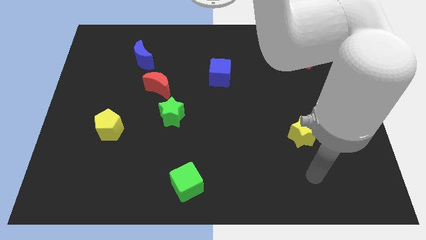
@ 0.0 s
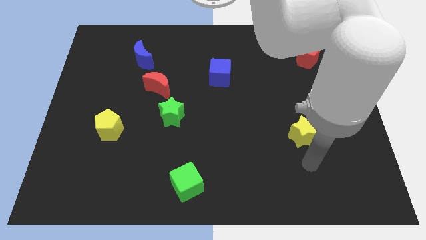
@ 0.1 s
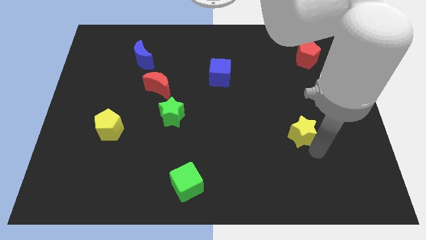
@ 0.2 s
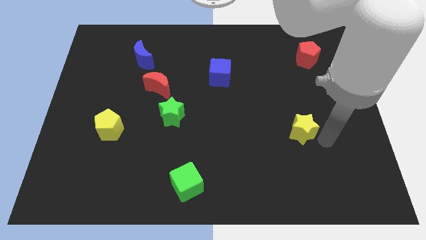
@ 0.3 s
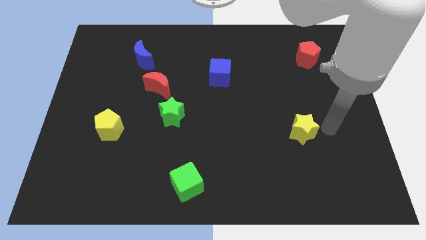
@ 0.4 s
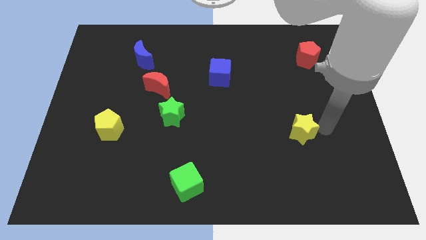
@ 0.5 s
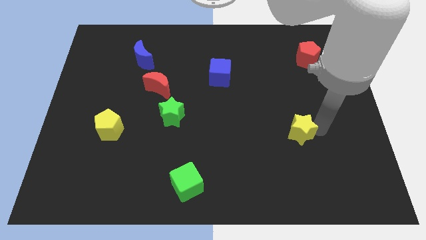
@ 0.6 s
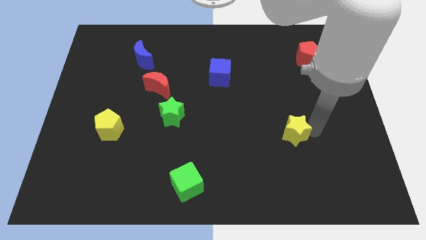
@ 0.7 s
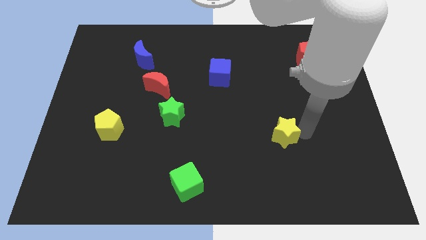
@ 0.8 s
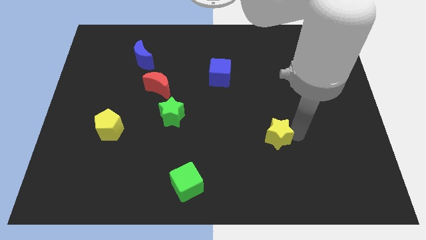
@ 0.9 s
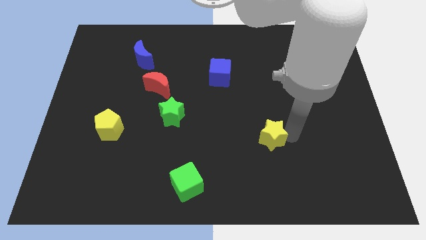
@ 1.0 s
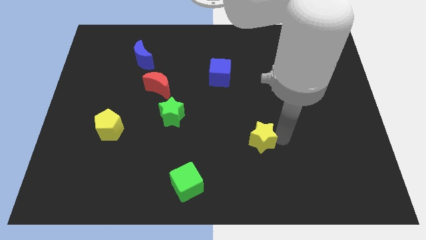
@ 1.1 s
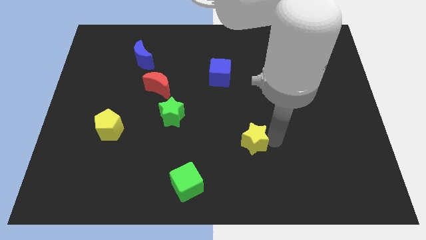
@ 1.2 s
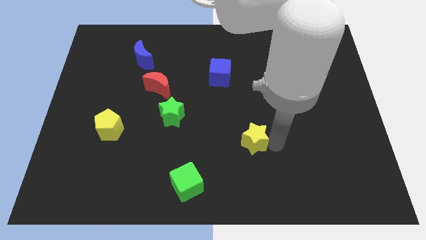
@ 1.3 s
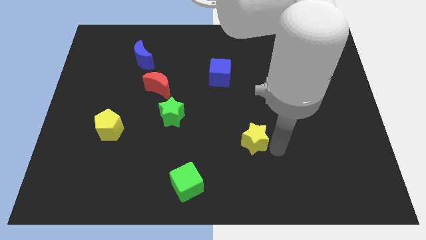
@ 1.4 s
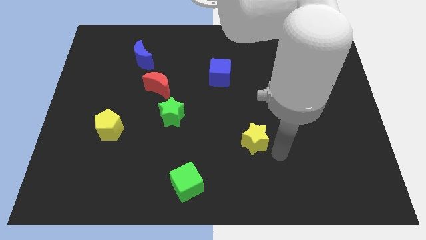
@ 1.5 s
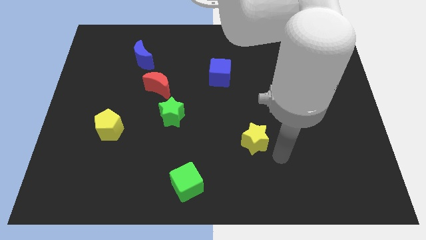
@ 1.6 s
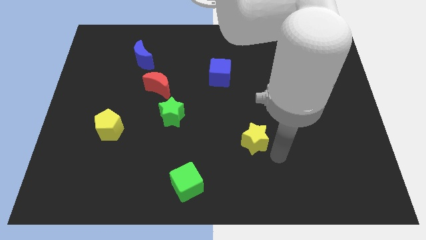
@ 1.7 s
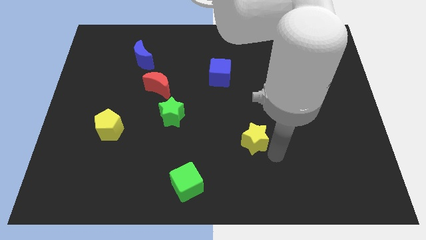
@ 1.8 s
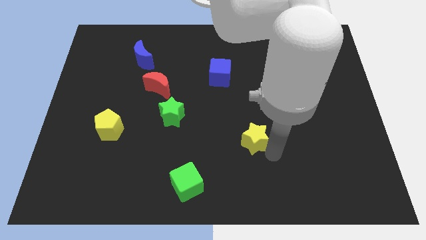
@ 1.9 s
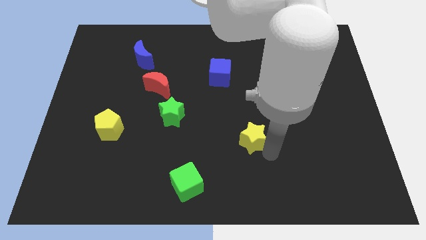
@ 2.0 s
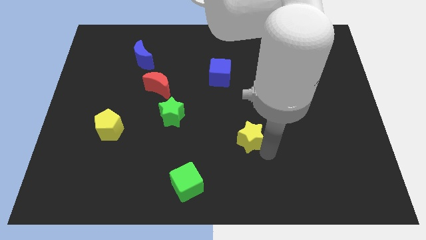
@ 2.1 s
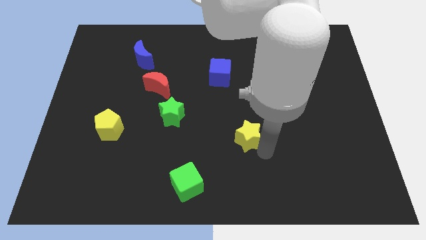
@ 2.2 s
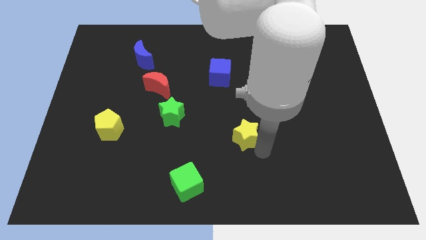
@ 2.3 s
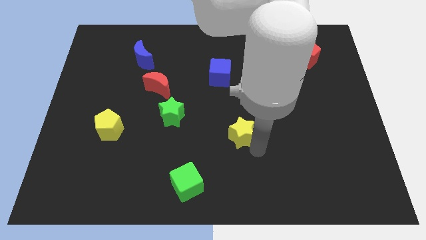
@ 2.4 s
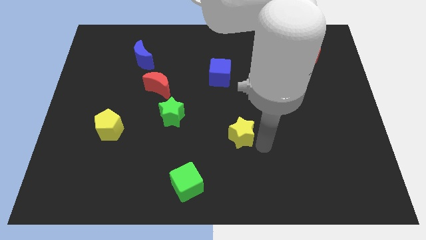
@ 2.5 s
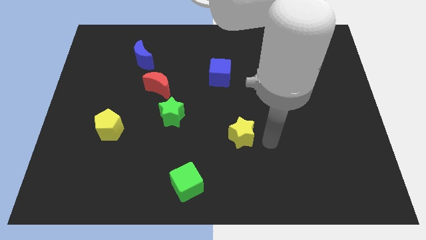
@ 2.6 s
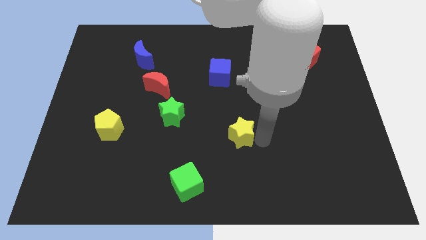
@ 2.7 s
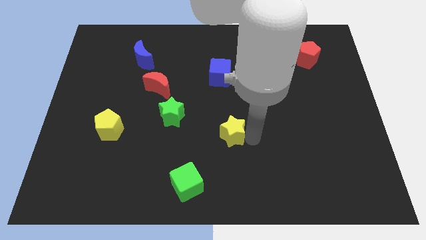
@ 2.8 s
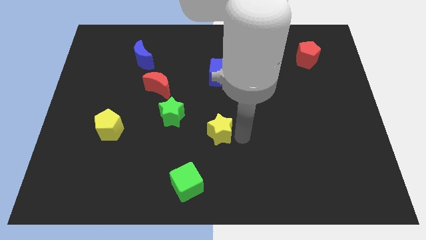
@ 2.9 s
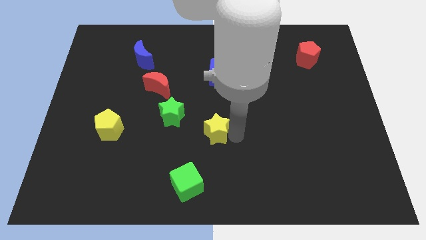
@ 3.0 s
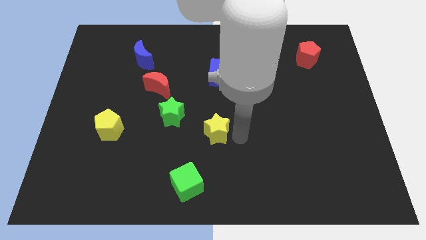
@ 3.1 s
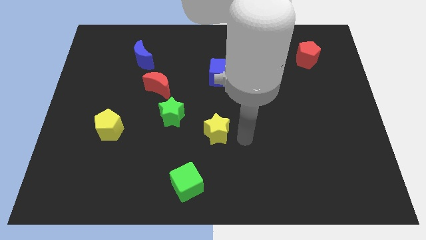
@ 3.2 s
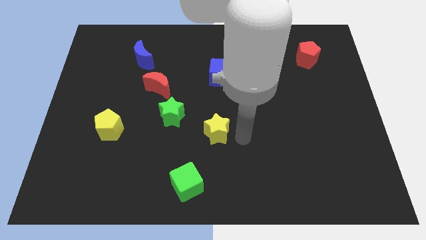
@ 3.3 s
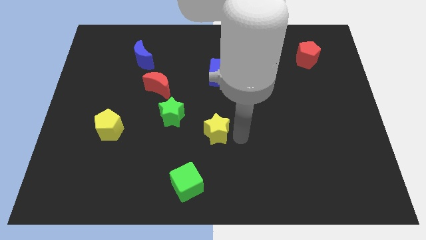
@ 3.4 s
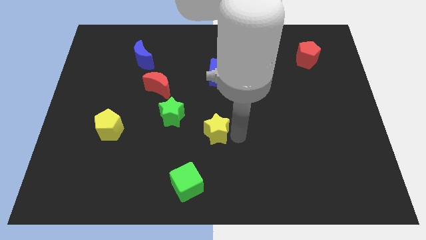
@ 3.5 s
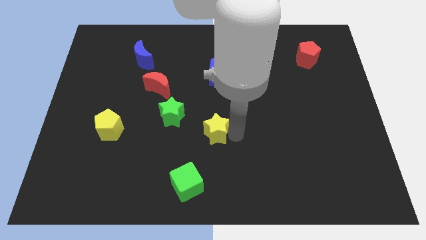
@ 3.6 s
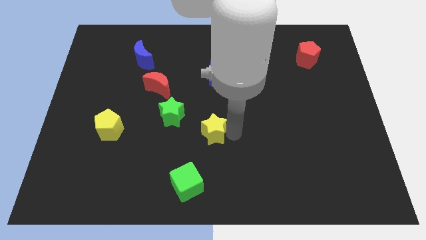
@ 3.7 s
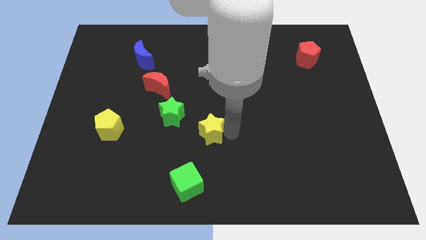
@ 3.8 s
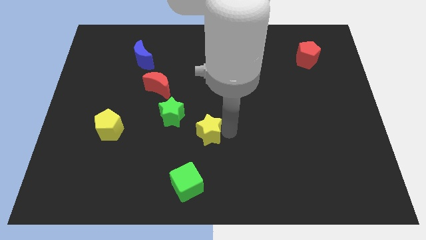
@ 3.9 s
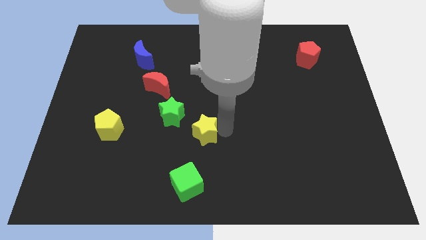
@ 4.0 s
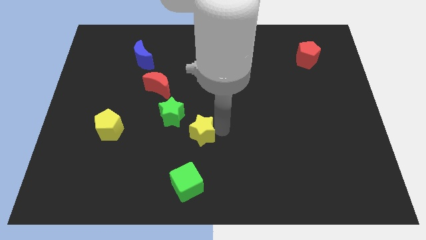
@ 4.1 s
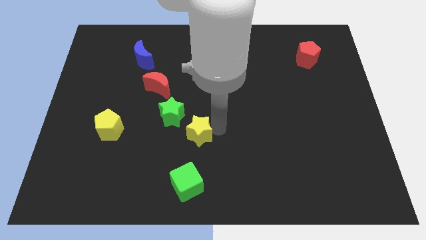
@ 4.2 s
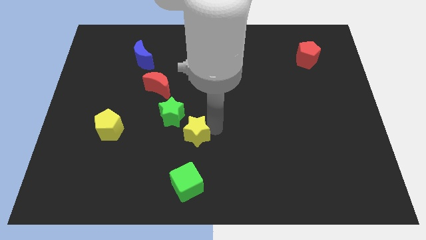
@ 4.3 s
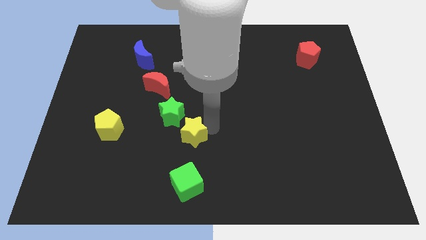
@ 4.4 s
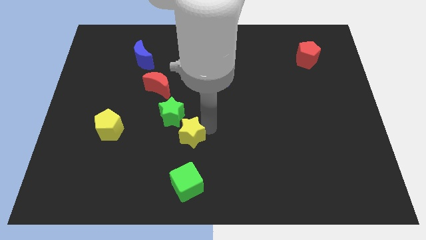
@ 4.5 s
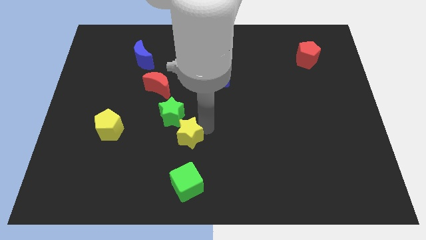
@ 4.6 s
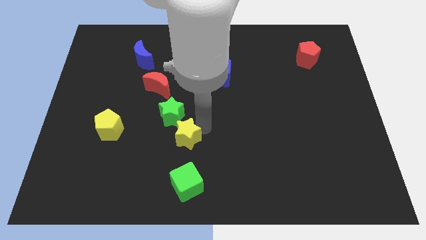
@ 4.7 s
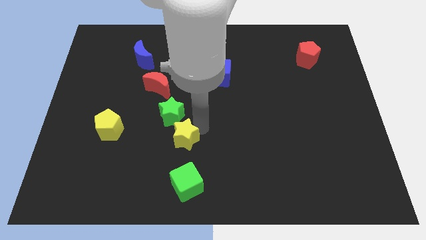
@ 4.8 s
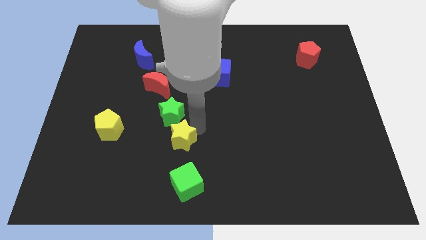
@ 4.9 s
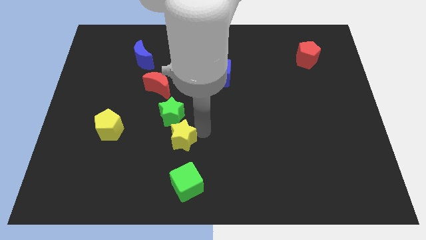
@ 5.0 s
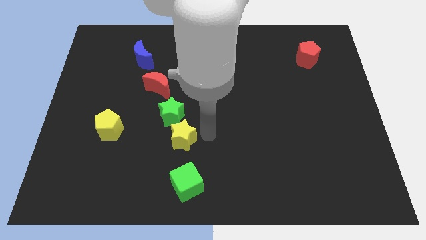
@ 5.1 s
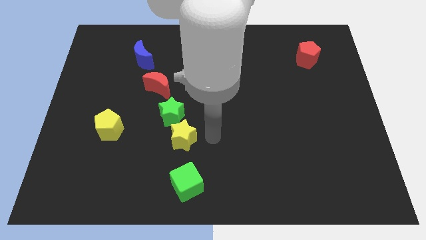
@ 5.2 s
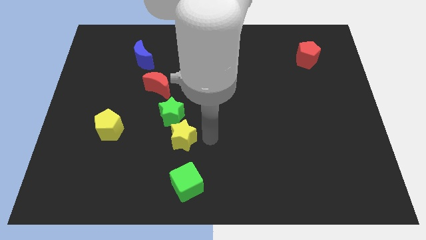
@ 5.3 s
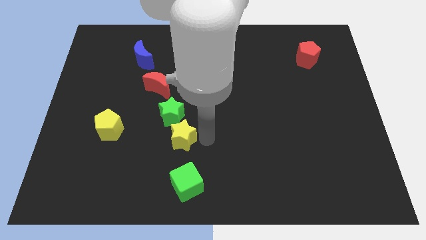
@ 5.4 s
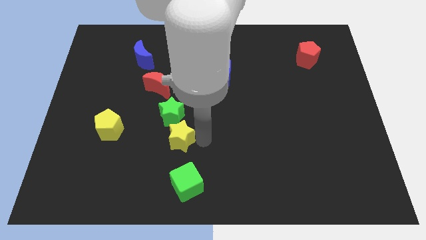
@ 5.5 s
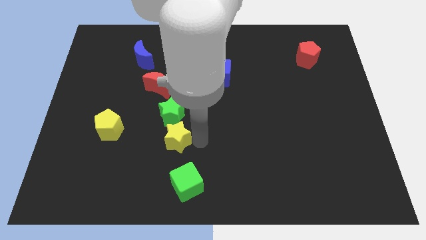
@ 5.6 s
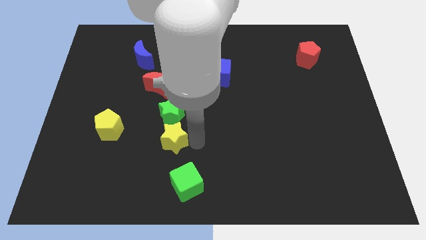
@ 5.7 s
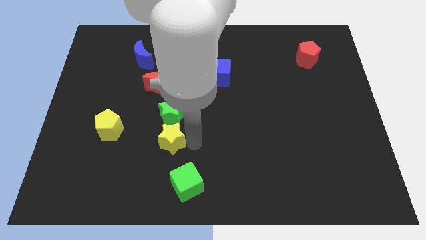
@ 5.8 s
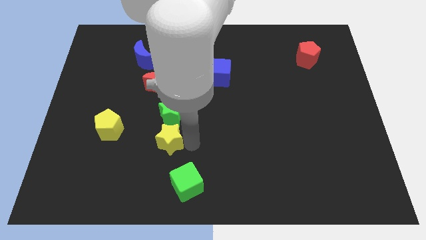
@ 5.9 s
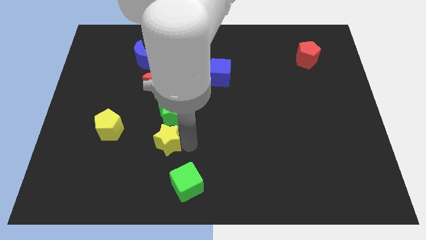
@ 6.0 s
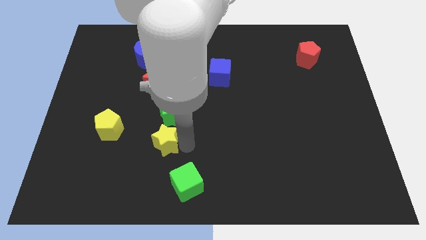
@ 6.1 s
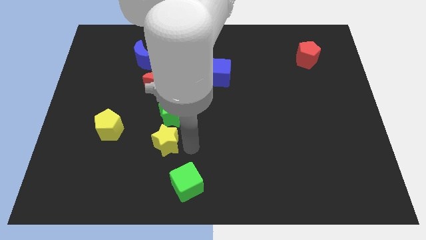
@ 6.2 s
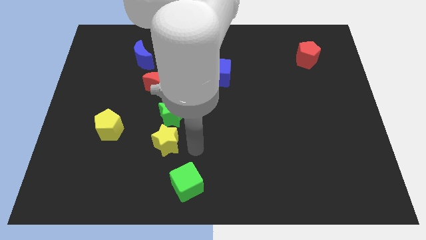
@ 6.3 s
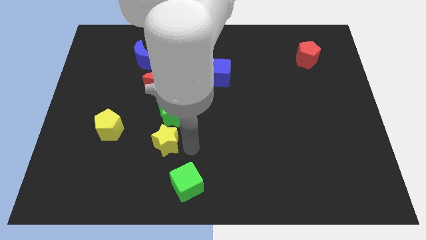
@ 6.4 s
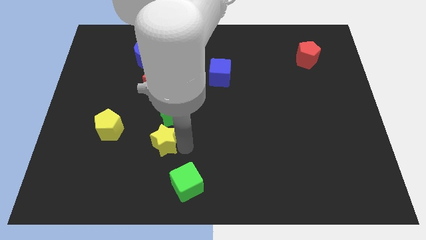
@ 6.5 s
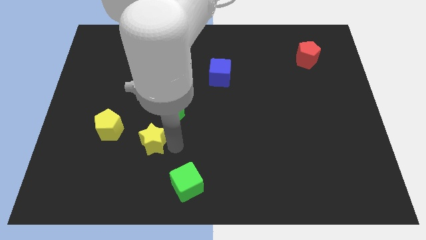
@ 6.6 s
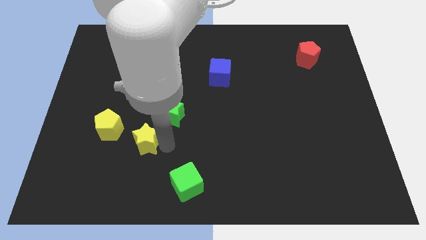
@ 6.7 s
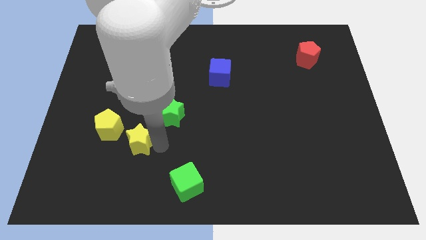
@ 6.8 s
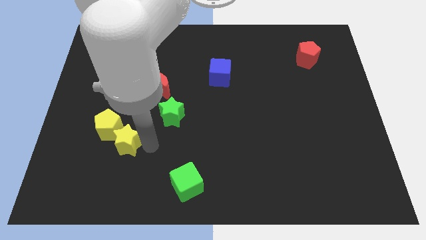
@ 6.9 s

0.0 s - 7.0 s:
move the yellow star towards the yellow pentagon
